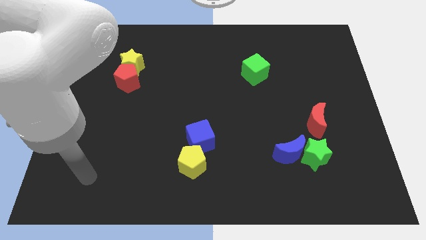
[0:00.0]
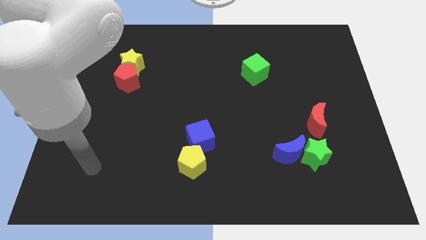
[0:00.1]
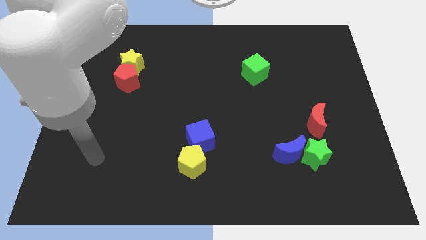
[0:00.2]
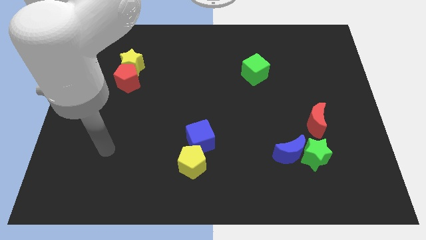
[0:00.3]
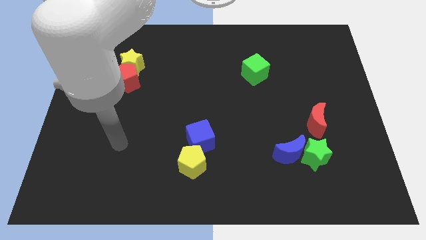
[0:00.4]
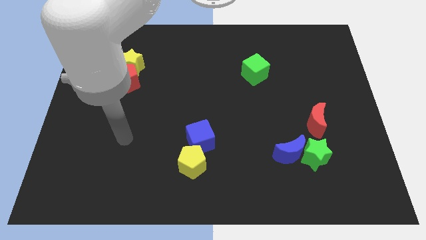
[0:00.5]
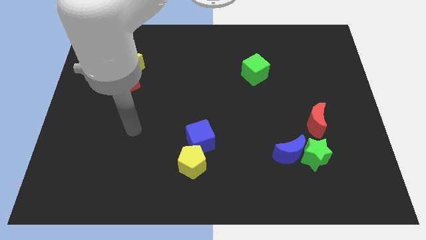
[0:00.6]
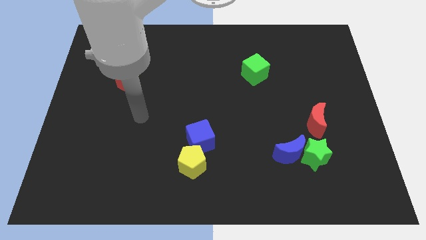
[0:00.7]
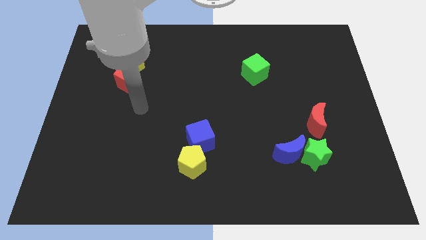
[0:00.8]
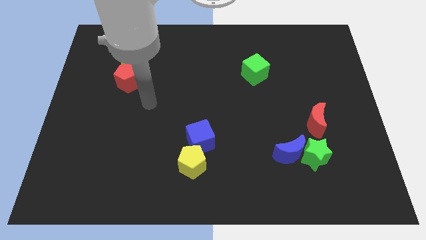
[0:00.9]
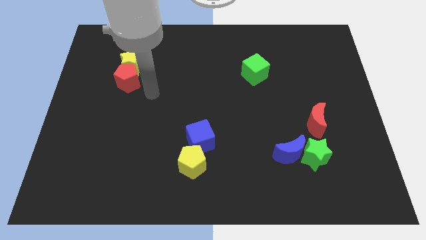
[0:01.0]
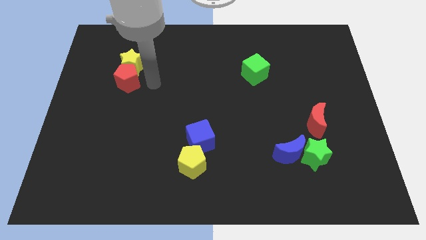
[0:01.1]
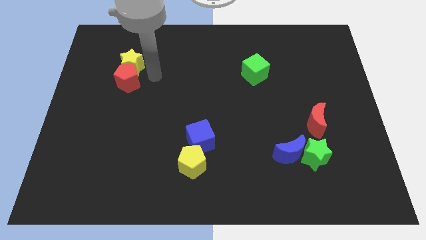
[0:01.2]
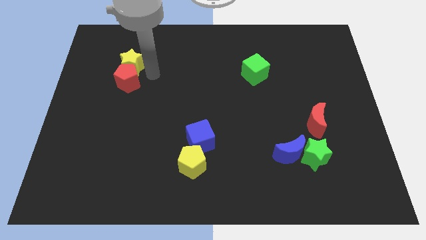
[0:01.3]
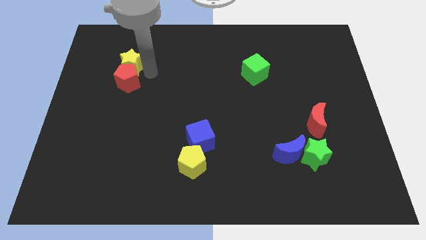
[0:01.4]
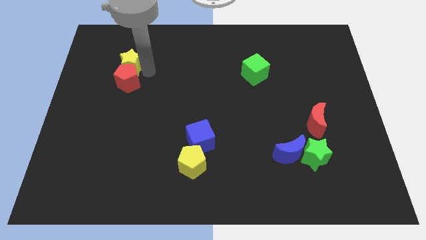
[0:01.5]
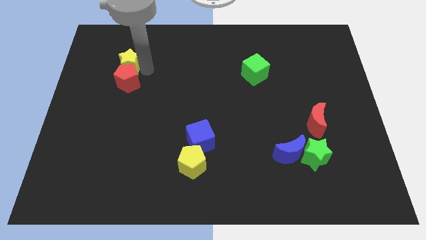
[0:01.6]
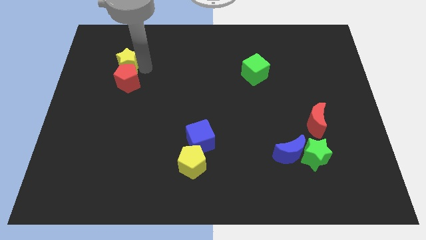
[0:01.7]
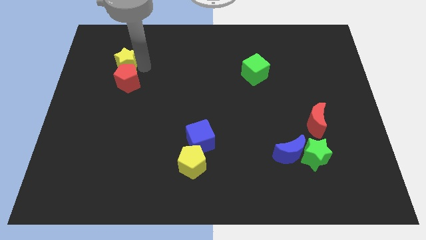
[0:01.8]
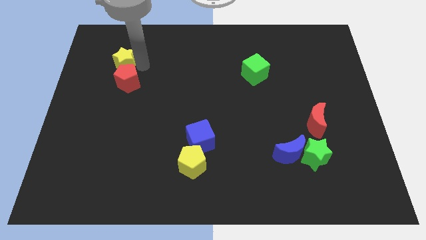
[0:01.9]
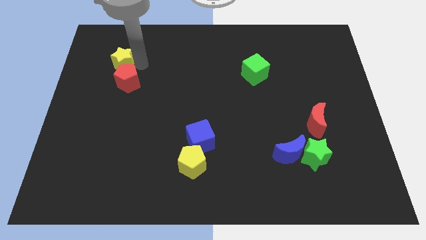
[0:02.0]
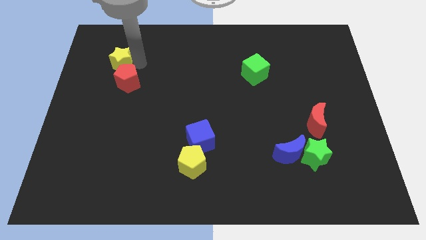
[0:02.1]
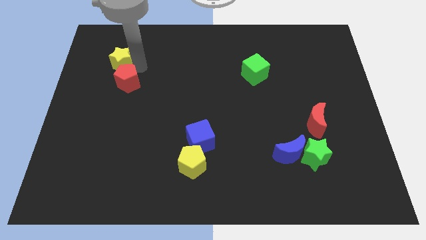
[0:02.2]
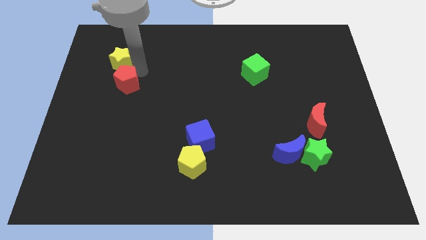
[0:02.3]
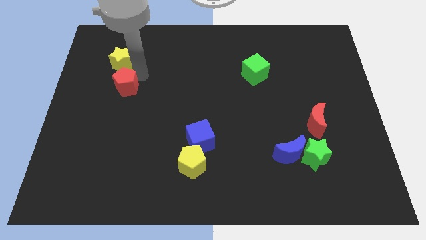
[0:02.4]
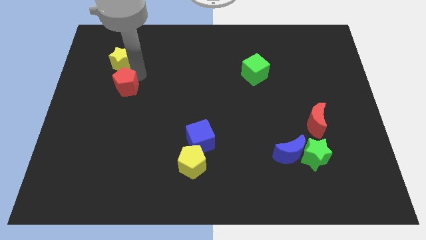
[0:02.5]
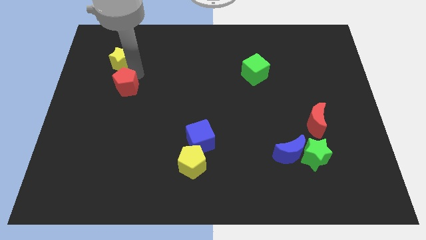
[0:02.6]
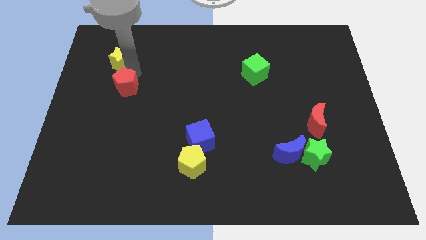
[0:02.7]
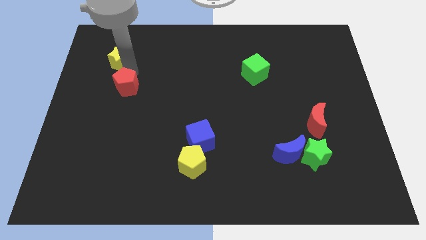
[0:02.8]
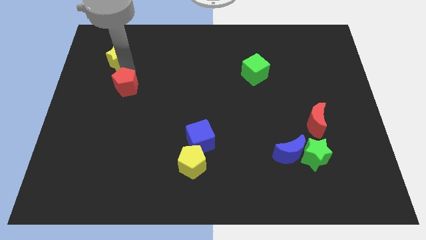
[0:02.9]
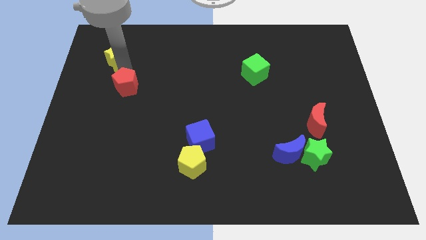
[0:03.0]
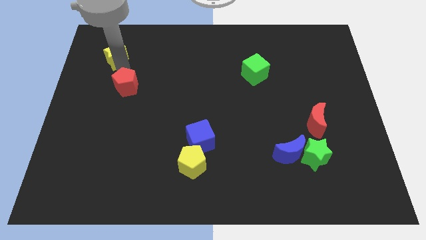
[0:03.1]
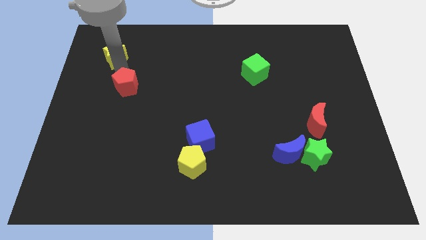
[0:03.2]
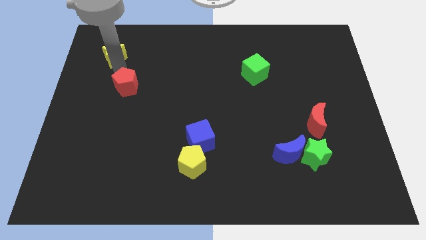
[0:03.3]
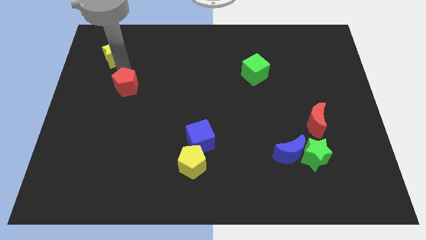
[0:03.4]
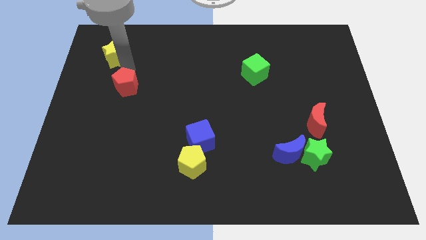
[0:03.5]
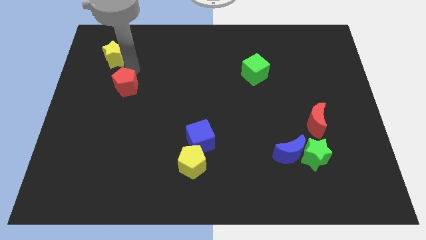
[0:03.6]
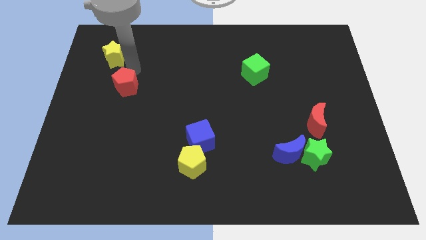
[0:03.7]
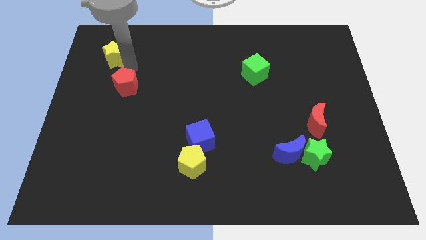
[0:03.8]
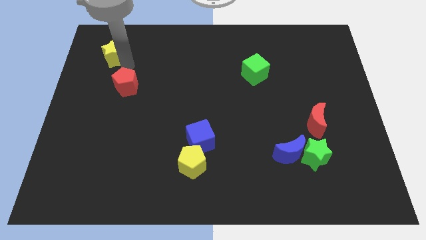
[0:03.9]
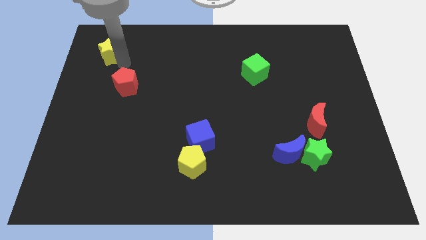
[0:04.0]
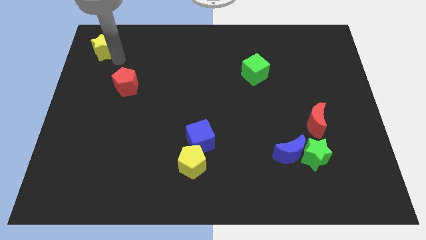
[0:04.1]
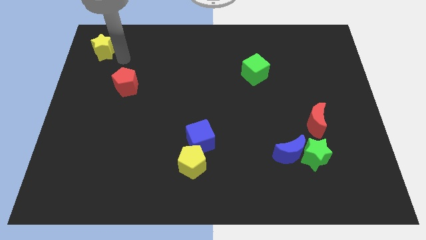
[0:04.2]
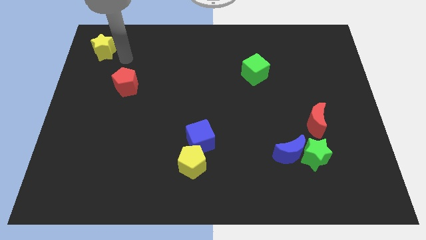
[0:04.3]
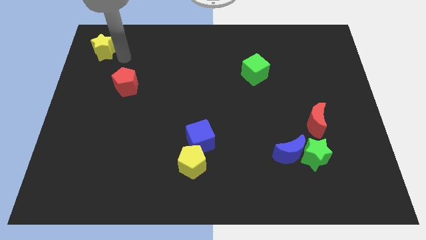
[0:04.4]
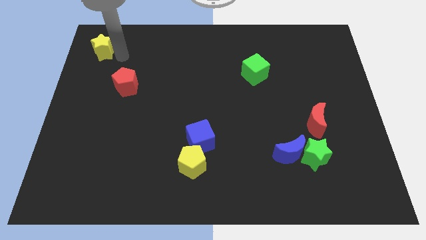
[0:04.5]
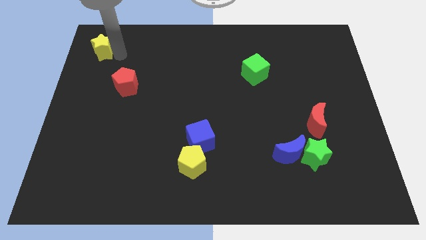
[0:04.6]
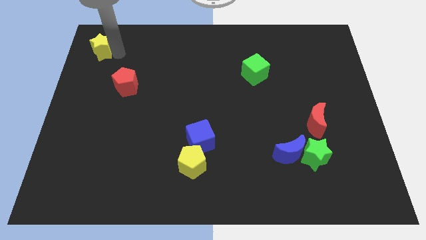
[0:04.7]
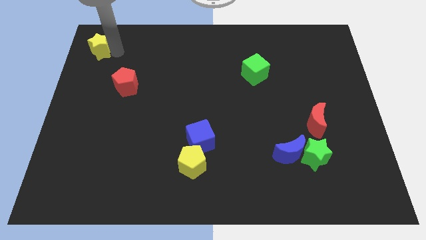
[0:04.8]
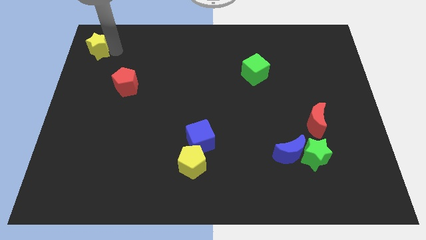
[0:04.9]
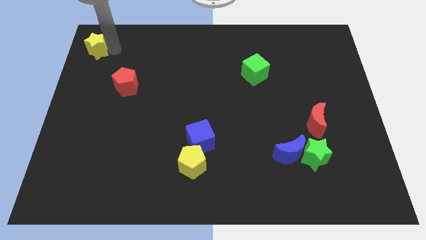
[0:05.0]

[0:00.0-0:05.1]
slide the yellow star to the upper left corner

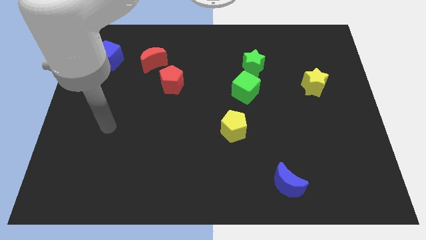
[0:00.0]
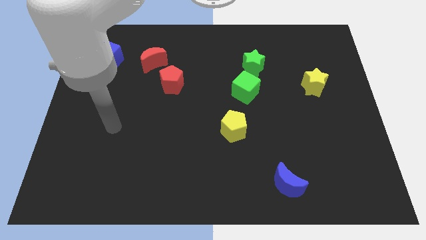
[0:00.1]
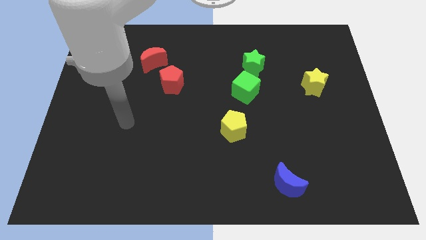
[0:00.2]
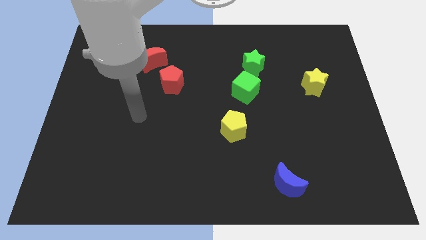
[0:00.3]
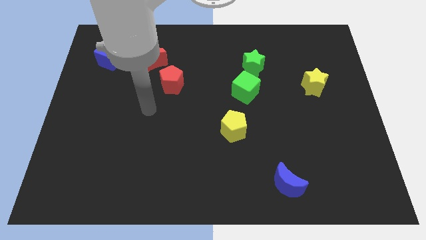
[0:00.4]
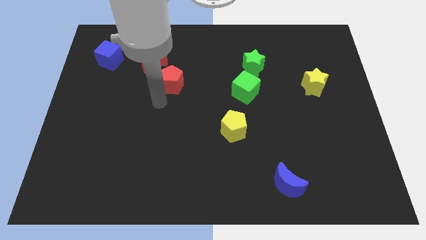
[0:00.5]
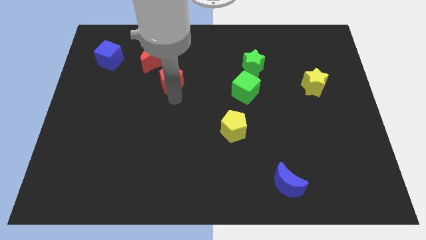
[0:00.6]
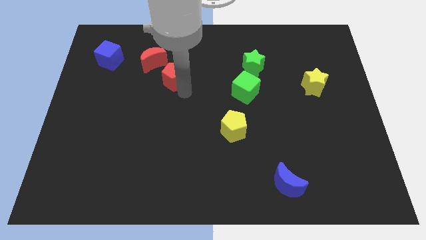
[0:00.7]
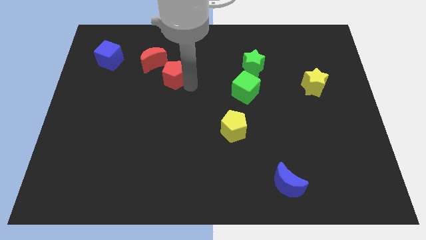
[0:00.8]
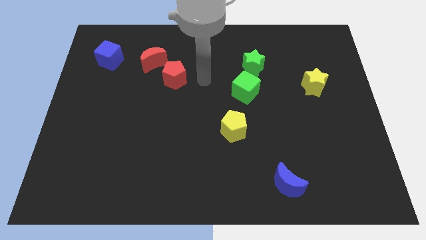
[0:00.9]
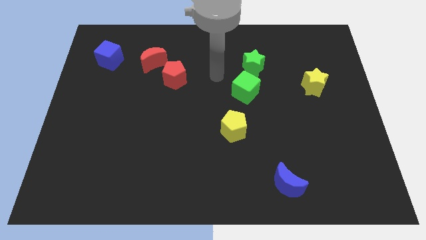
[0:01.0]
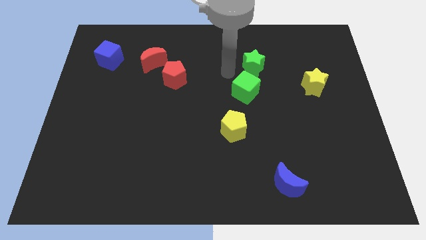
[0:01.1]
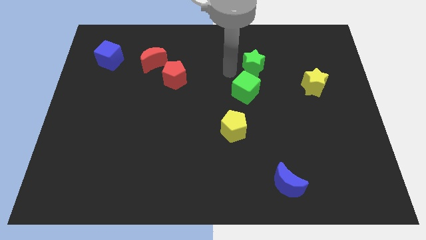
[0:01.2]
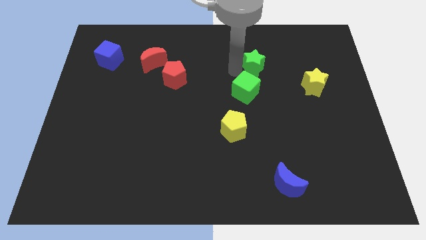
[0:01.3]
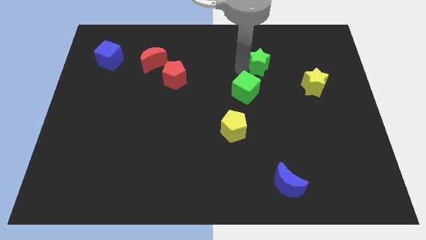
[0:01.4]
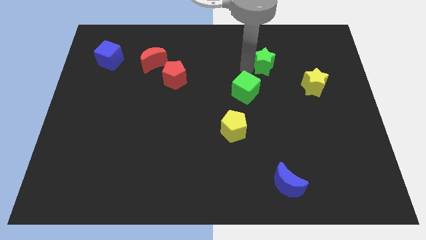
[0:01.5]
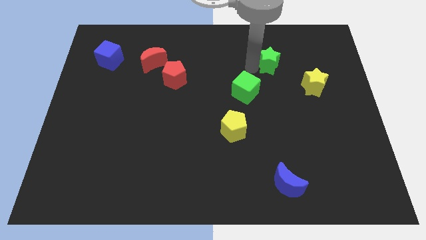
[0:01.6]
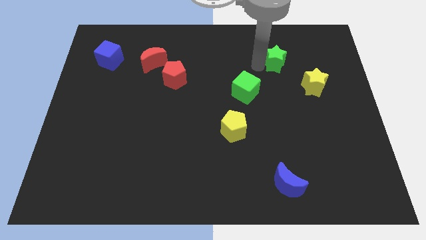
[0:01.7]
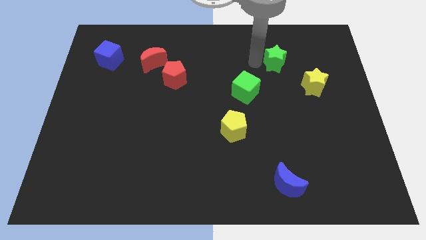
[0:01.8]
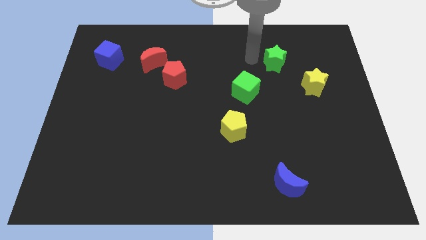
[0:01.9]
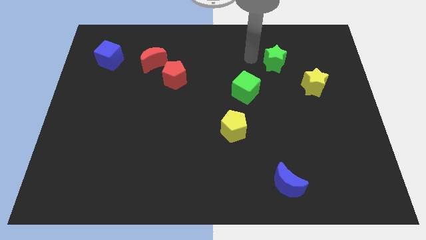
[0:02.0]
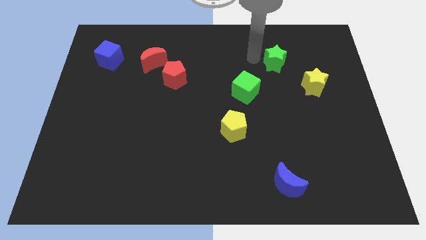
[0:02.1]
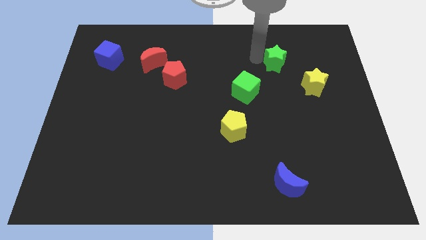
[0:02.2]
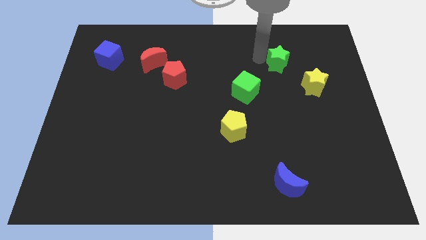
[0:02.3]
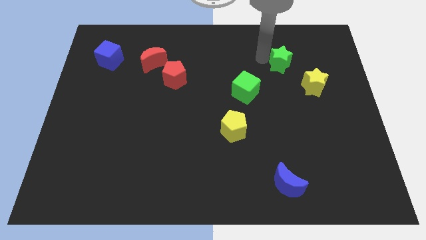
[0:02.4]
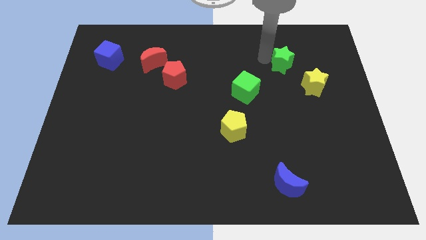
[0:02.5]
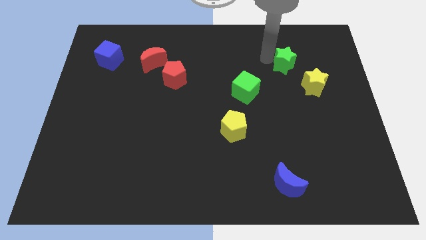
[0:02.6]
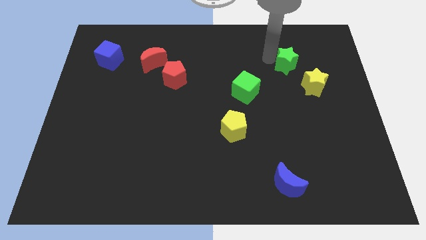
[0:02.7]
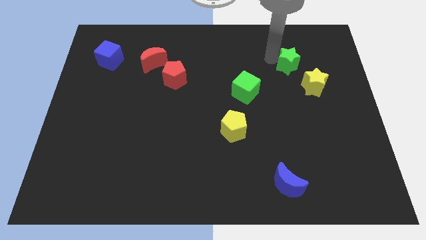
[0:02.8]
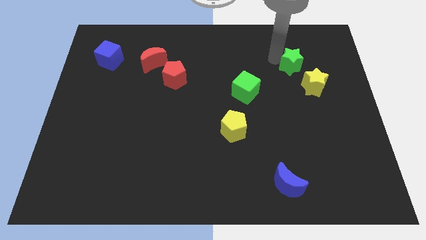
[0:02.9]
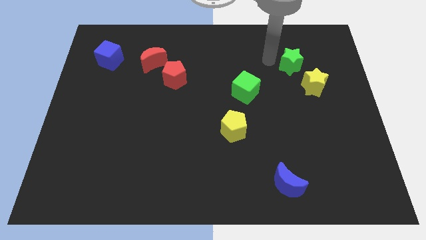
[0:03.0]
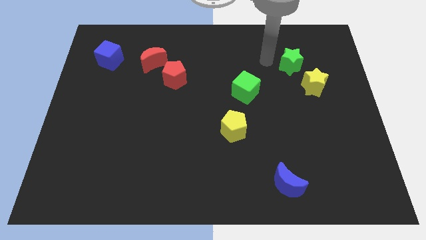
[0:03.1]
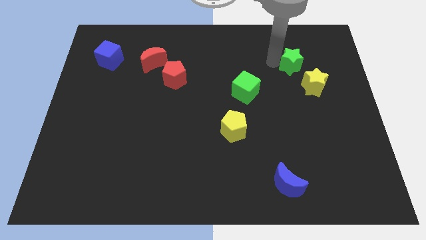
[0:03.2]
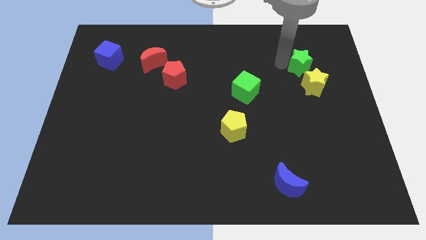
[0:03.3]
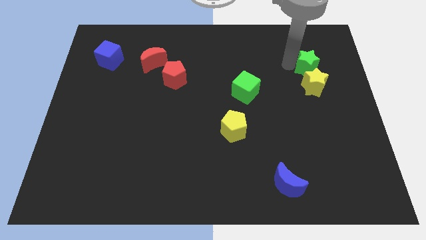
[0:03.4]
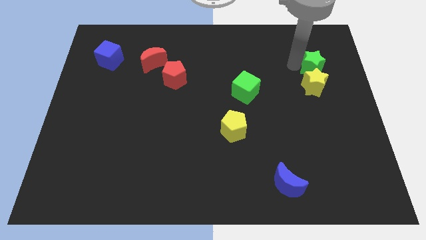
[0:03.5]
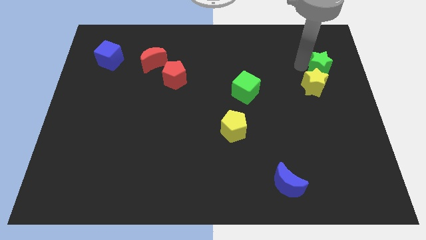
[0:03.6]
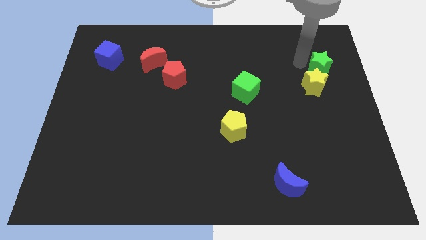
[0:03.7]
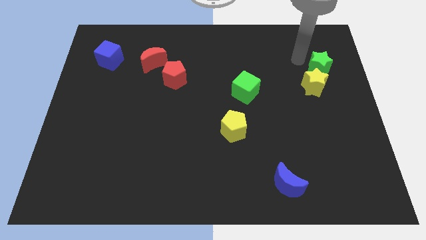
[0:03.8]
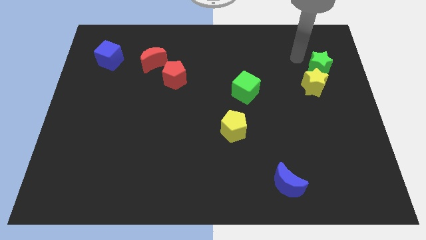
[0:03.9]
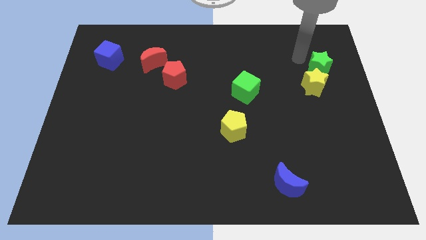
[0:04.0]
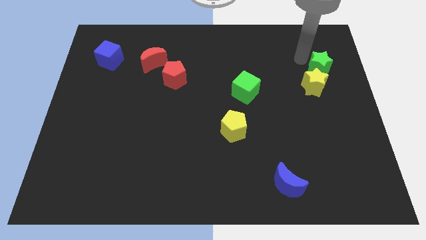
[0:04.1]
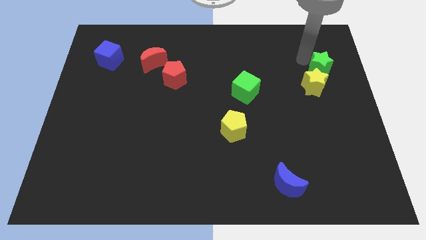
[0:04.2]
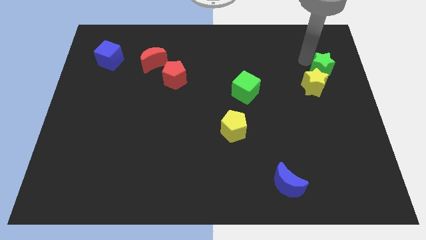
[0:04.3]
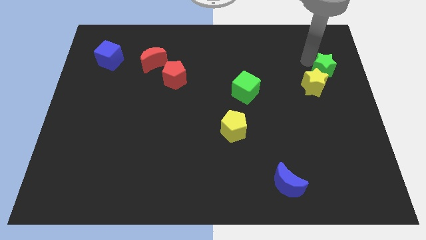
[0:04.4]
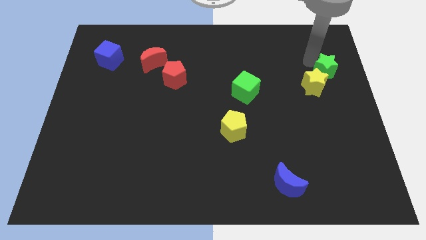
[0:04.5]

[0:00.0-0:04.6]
put the green star to the center right
